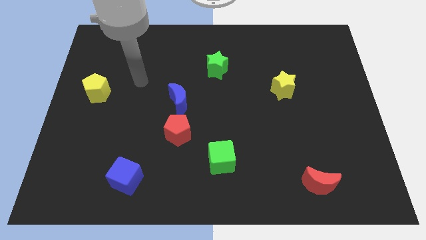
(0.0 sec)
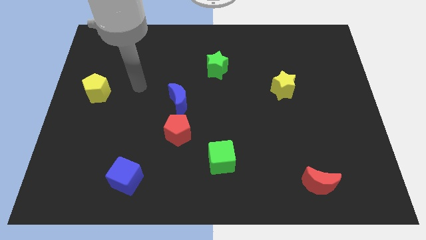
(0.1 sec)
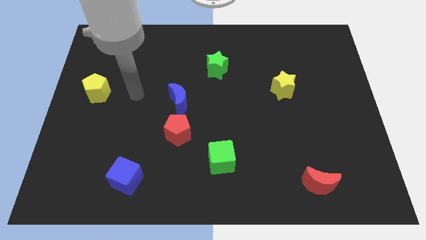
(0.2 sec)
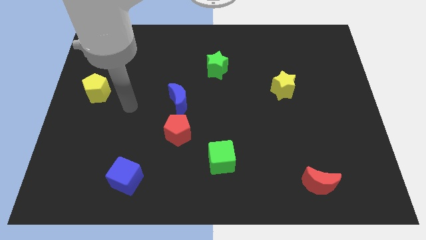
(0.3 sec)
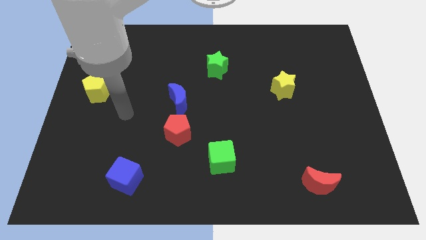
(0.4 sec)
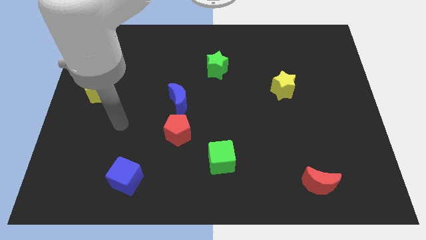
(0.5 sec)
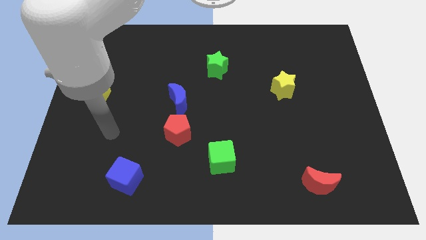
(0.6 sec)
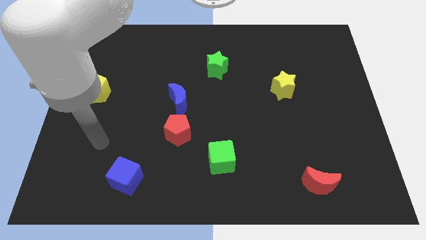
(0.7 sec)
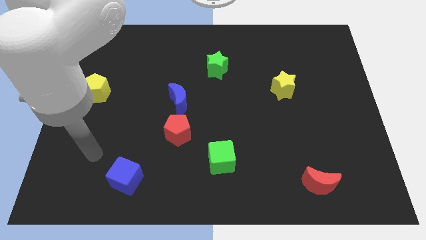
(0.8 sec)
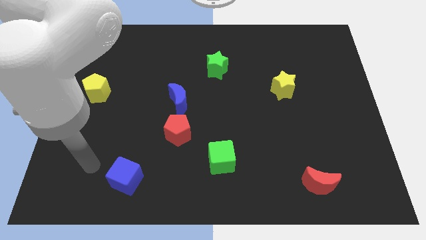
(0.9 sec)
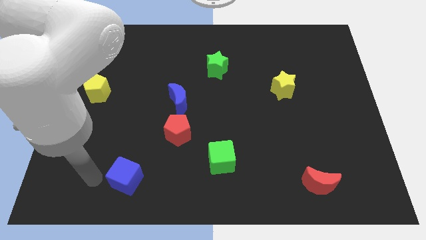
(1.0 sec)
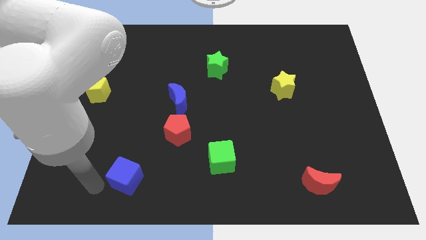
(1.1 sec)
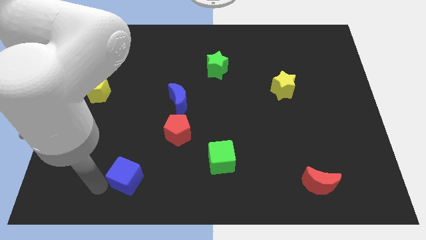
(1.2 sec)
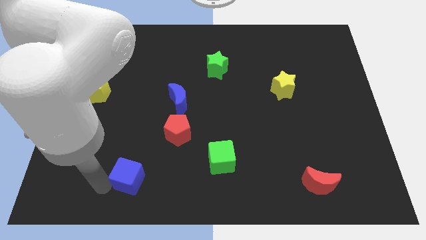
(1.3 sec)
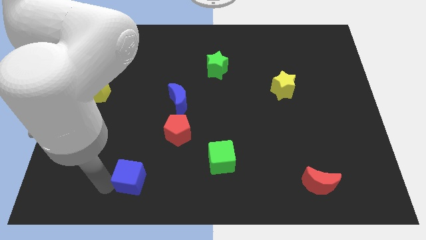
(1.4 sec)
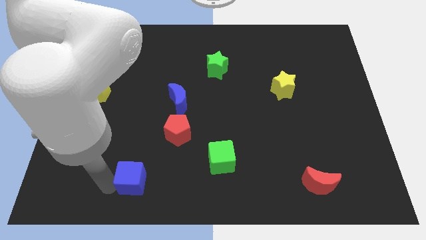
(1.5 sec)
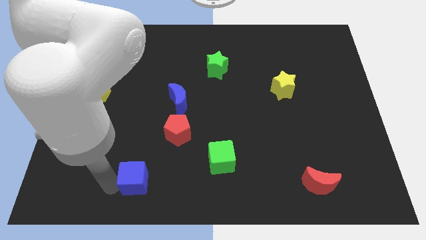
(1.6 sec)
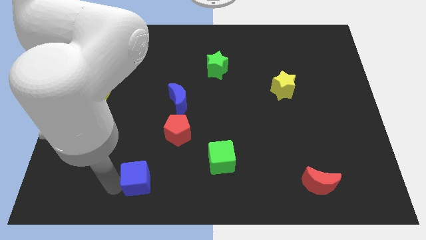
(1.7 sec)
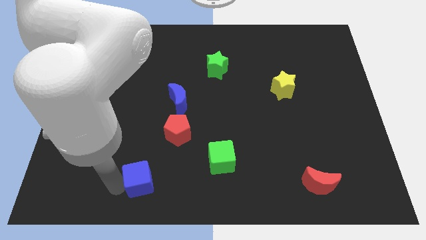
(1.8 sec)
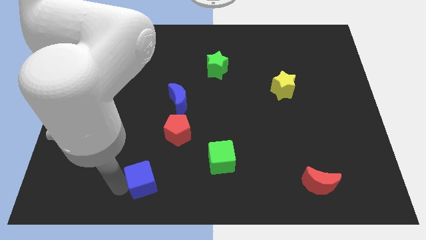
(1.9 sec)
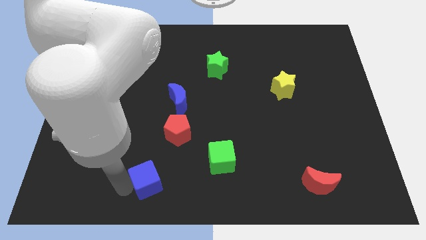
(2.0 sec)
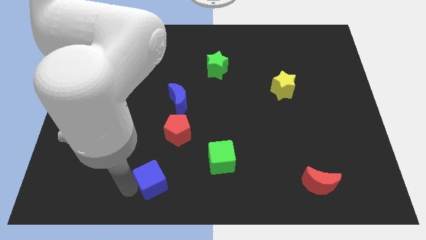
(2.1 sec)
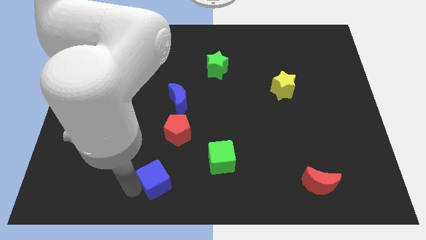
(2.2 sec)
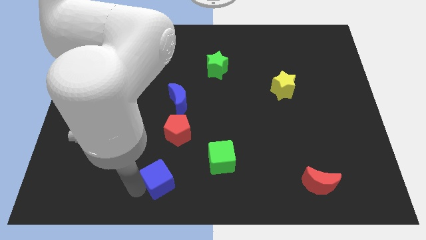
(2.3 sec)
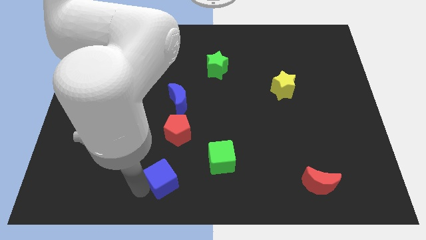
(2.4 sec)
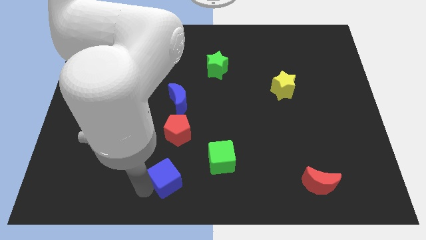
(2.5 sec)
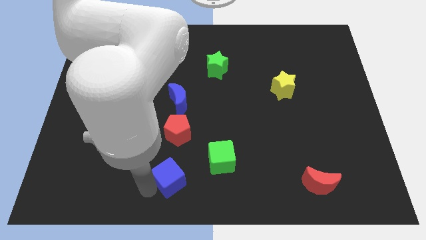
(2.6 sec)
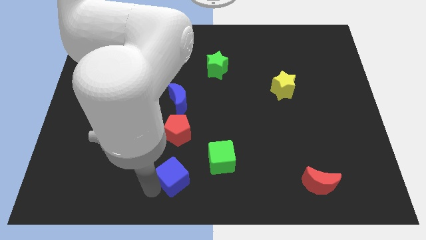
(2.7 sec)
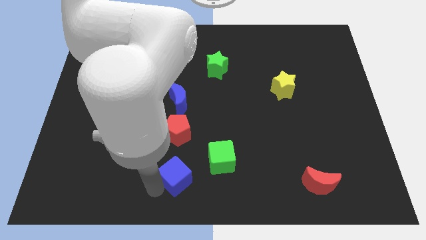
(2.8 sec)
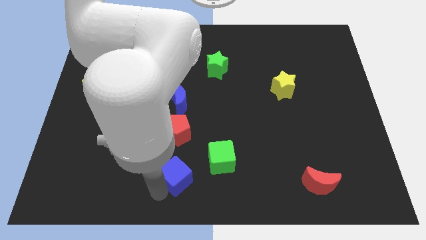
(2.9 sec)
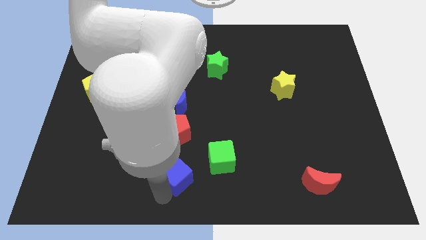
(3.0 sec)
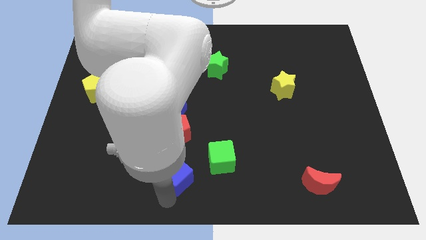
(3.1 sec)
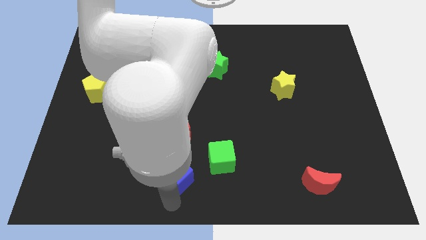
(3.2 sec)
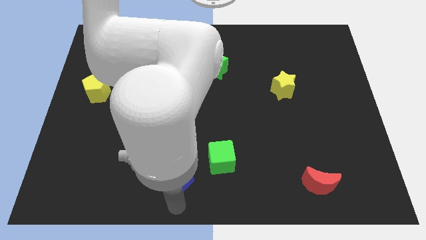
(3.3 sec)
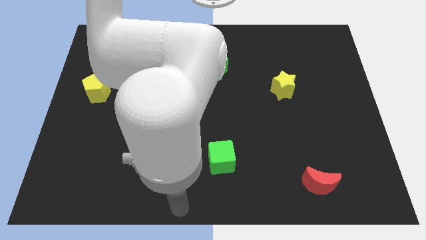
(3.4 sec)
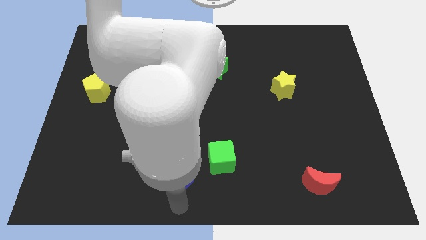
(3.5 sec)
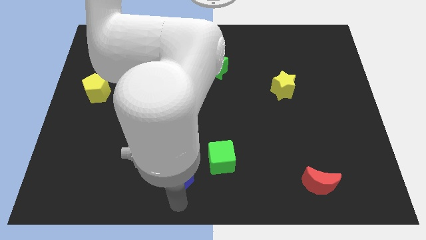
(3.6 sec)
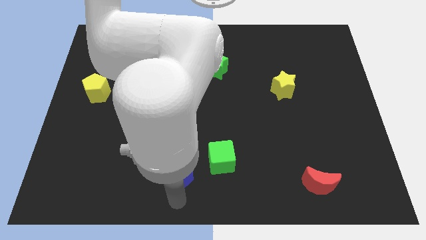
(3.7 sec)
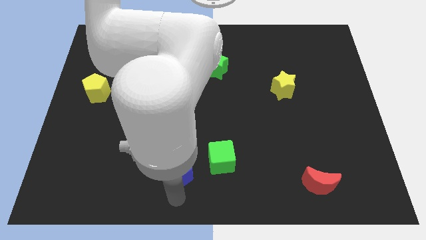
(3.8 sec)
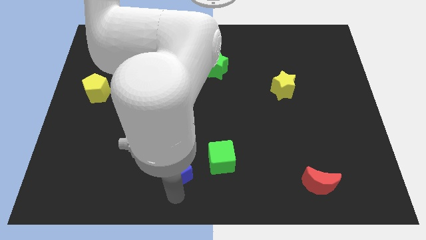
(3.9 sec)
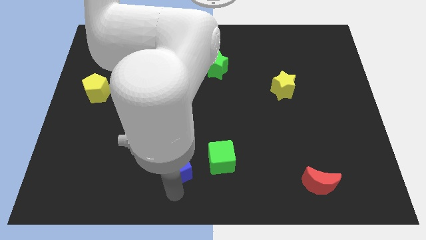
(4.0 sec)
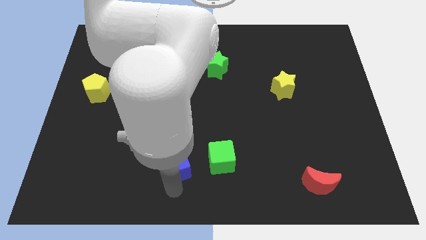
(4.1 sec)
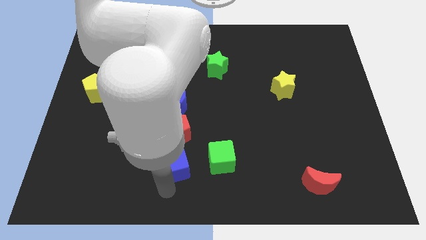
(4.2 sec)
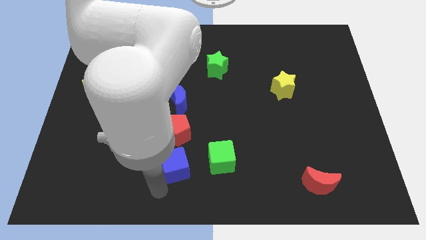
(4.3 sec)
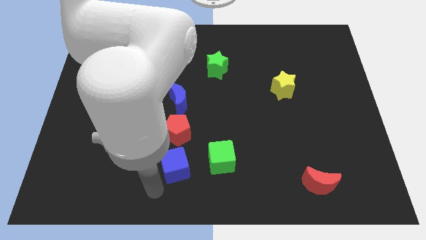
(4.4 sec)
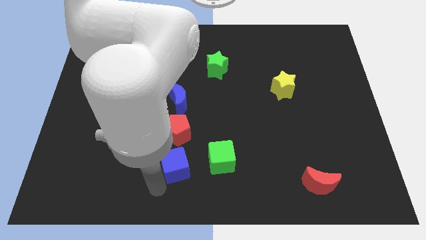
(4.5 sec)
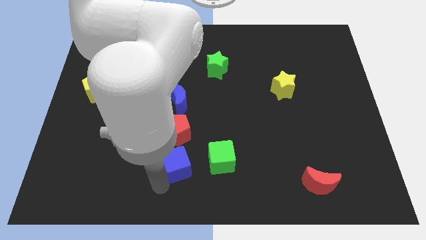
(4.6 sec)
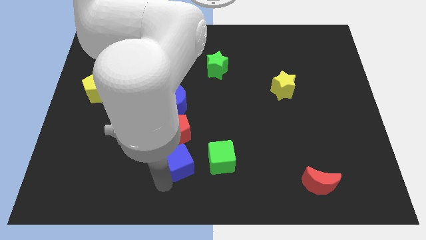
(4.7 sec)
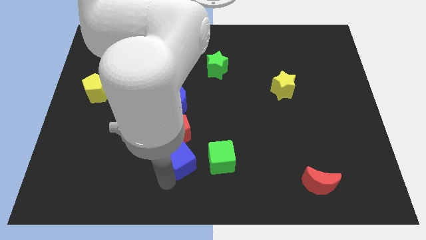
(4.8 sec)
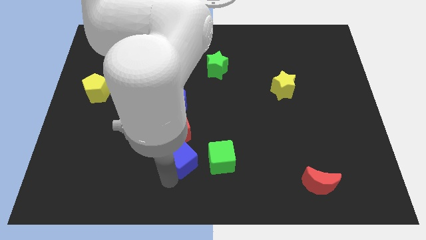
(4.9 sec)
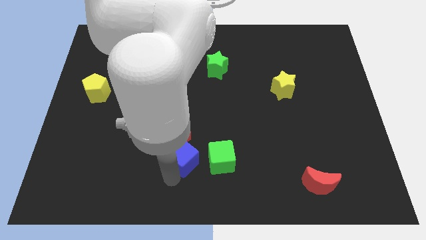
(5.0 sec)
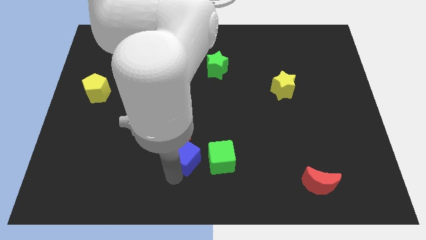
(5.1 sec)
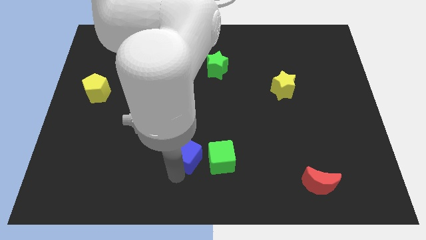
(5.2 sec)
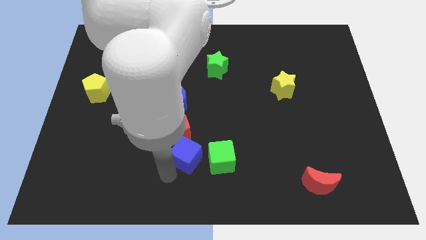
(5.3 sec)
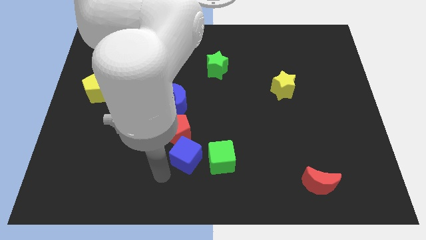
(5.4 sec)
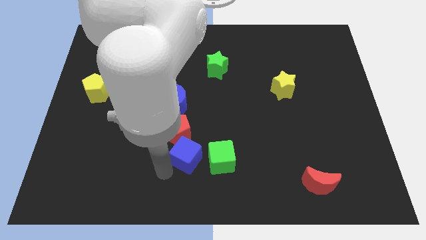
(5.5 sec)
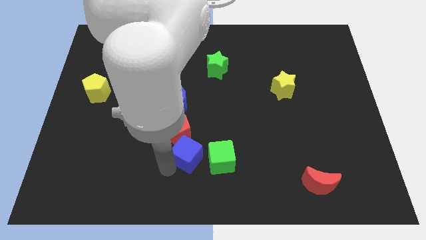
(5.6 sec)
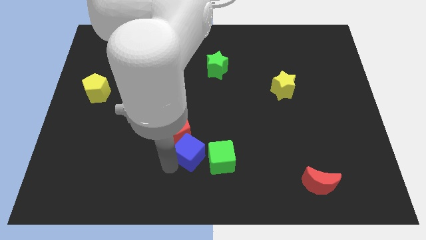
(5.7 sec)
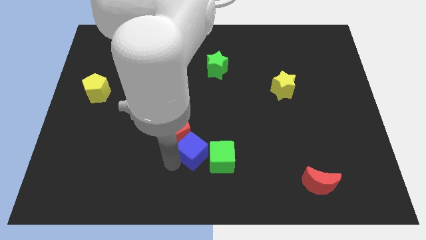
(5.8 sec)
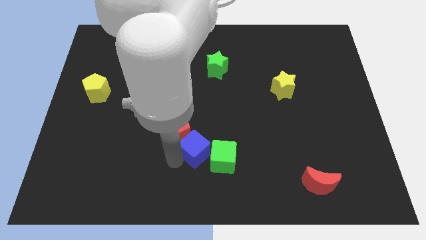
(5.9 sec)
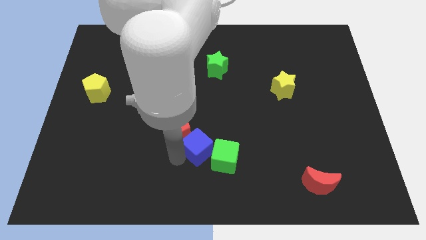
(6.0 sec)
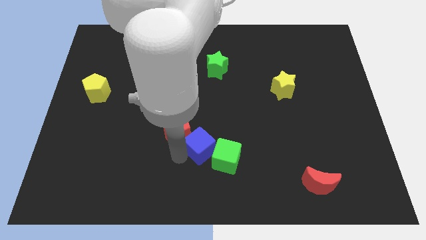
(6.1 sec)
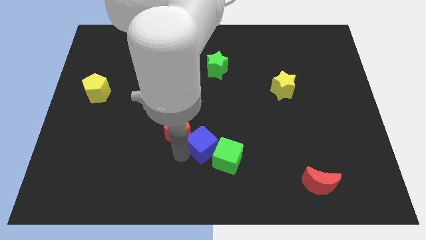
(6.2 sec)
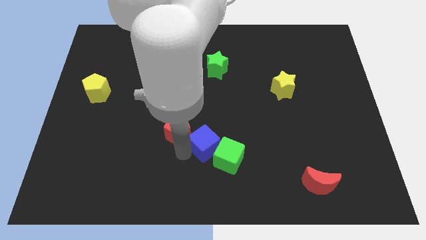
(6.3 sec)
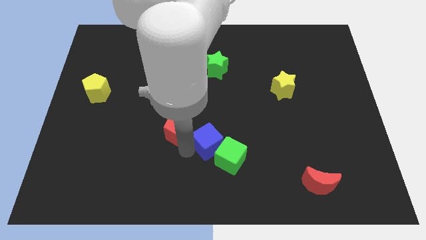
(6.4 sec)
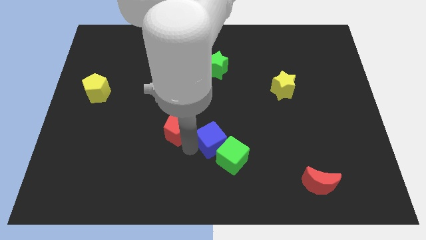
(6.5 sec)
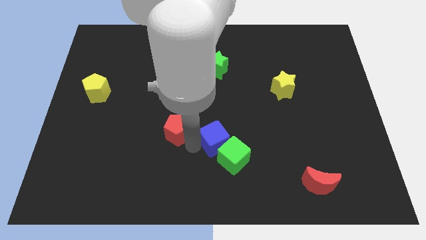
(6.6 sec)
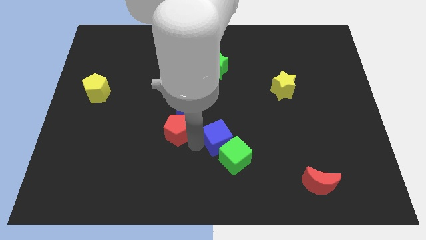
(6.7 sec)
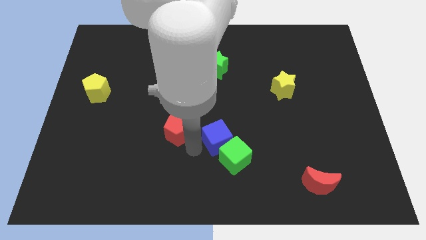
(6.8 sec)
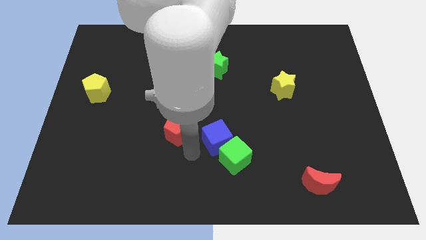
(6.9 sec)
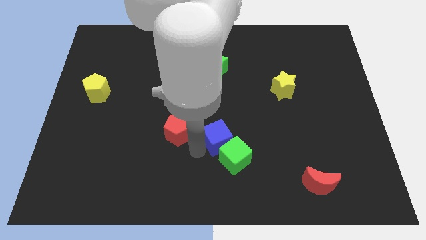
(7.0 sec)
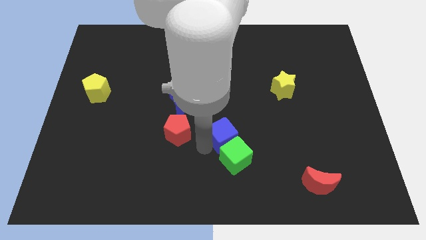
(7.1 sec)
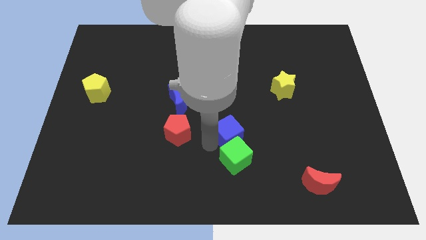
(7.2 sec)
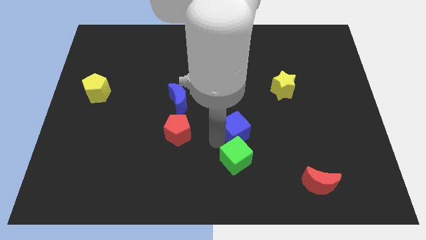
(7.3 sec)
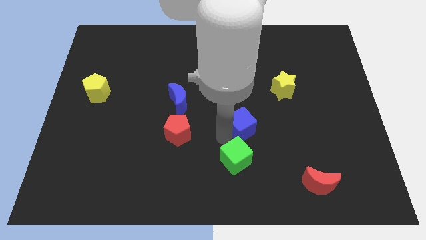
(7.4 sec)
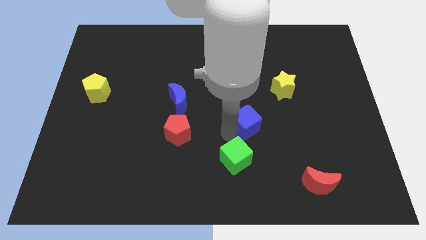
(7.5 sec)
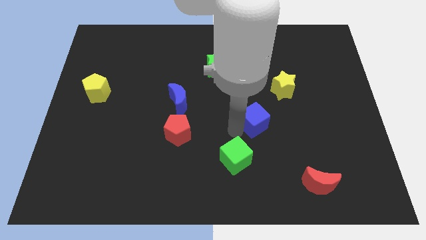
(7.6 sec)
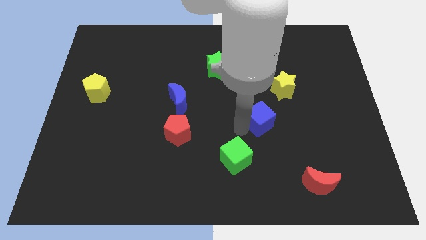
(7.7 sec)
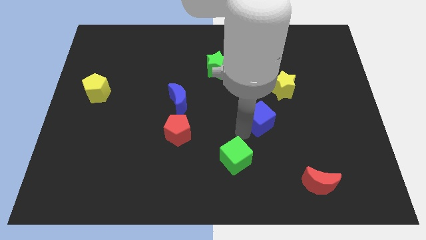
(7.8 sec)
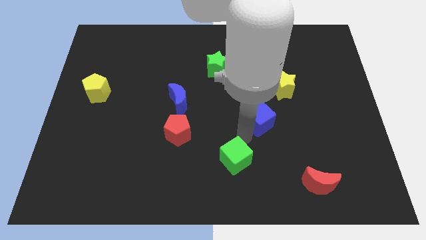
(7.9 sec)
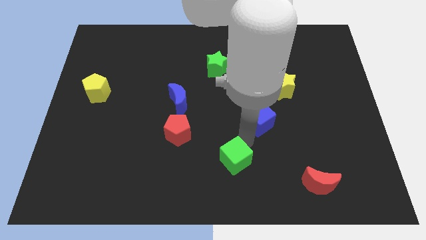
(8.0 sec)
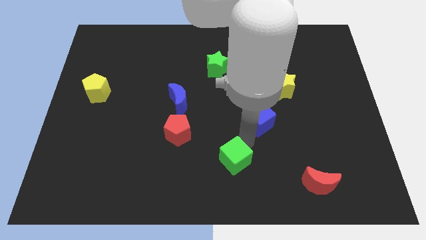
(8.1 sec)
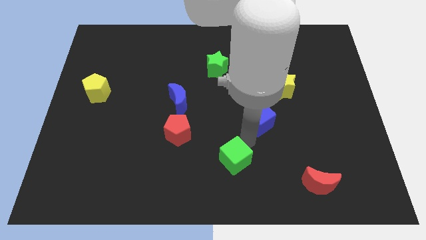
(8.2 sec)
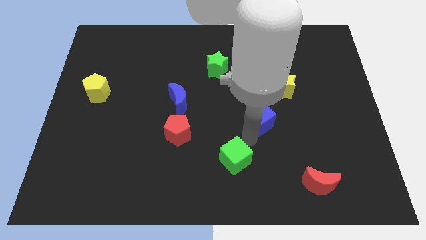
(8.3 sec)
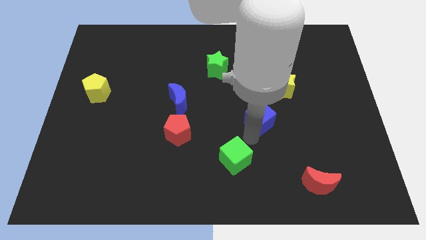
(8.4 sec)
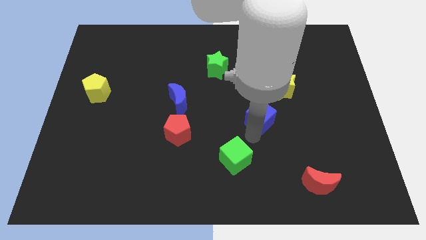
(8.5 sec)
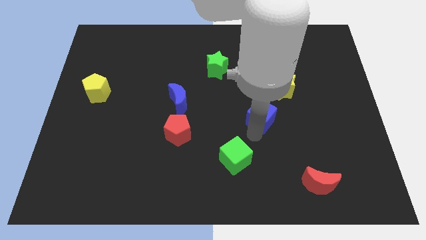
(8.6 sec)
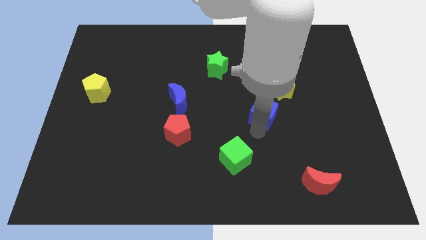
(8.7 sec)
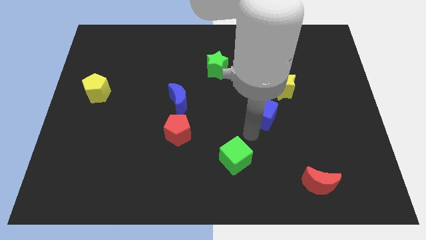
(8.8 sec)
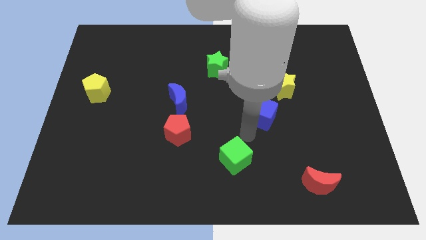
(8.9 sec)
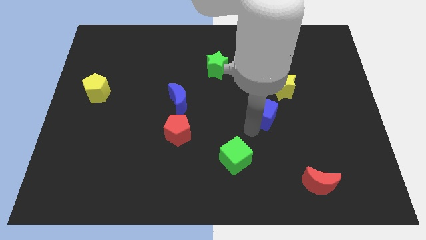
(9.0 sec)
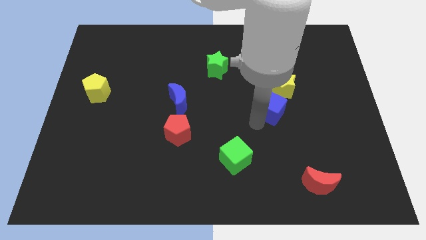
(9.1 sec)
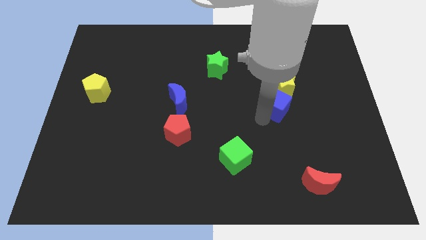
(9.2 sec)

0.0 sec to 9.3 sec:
put the blue cube next to the yellow star
